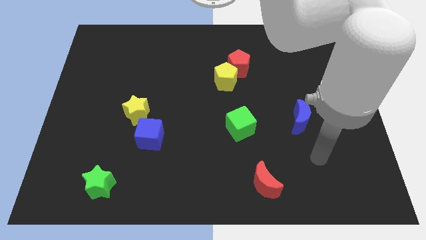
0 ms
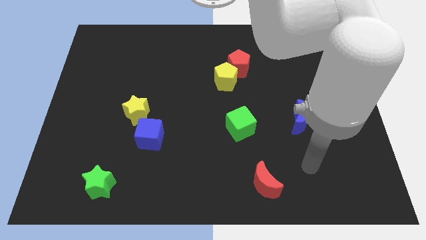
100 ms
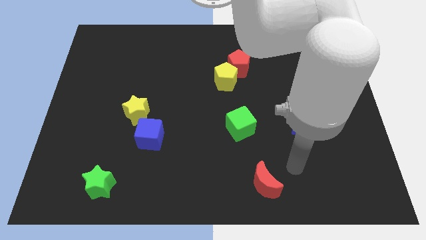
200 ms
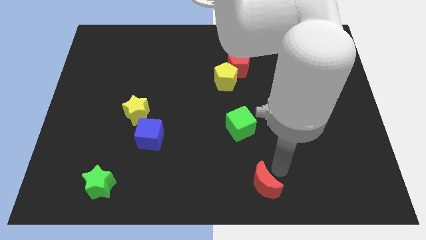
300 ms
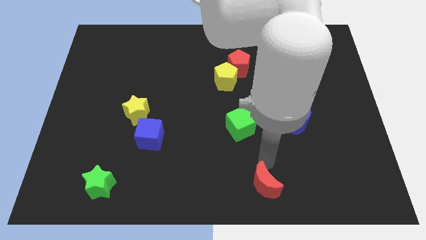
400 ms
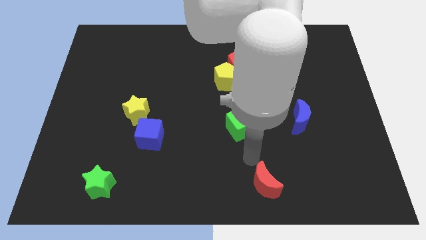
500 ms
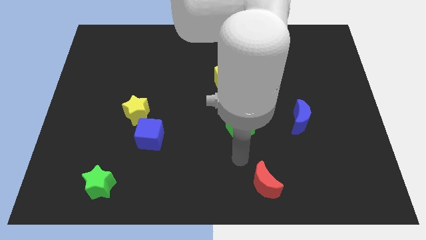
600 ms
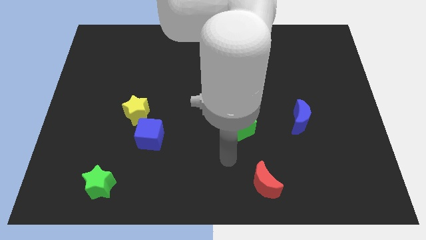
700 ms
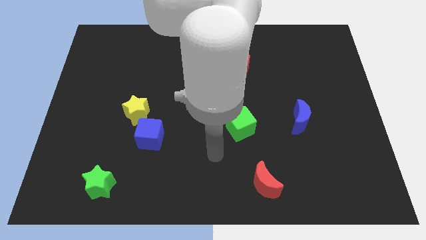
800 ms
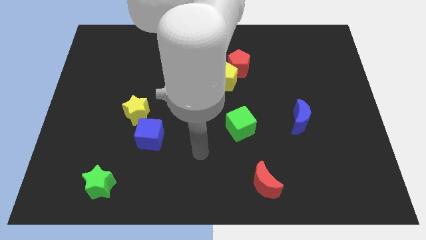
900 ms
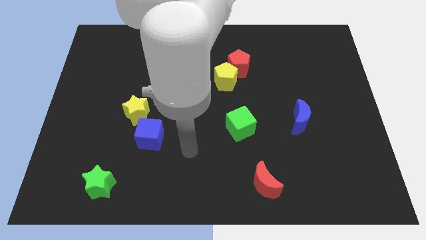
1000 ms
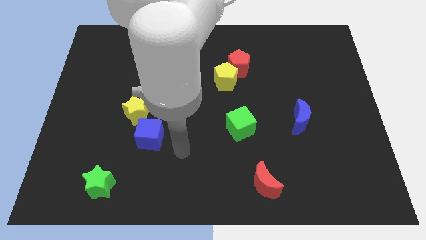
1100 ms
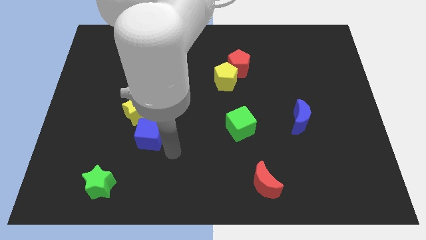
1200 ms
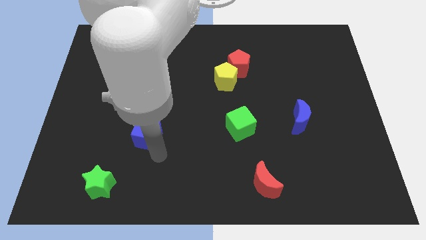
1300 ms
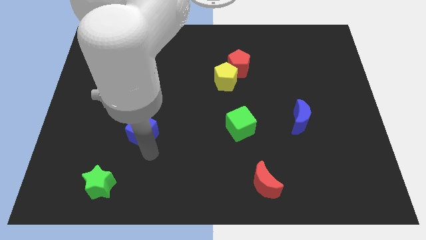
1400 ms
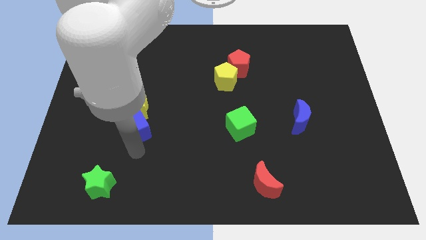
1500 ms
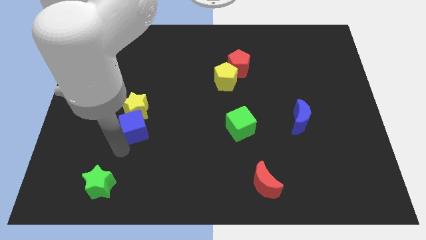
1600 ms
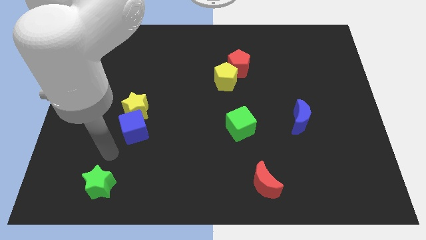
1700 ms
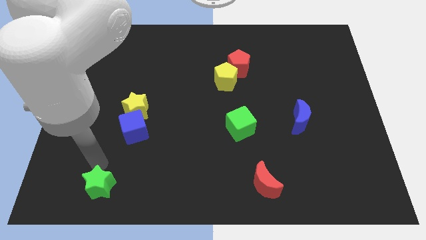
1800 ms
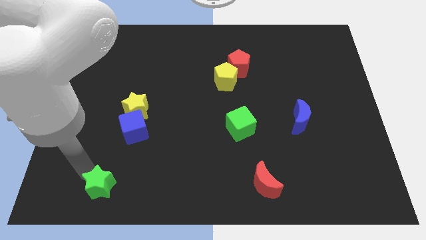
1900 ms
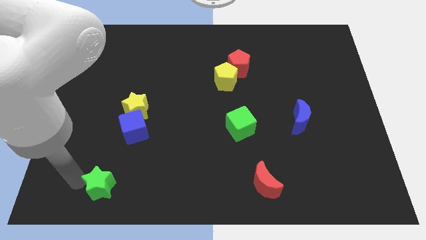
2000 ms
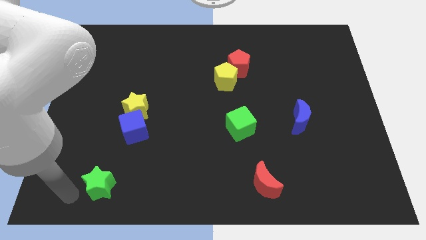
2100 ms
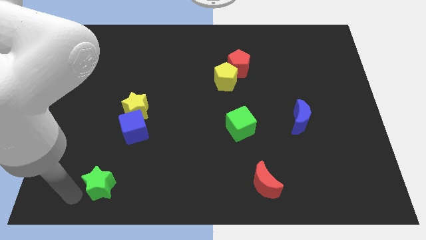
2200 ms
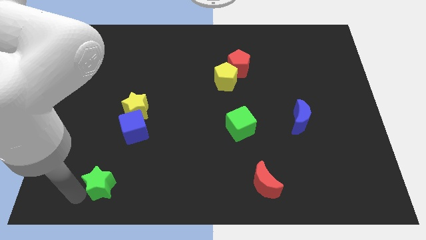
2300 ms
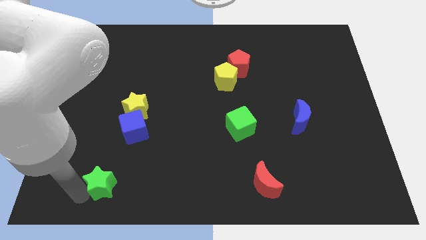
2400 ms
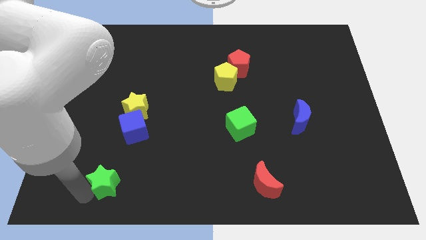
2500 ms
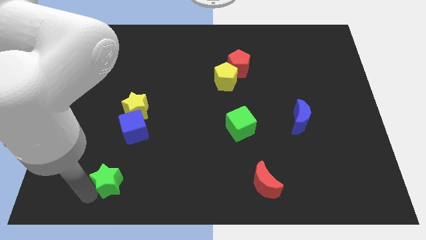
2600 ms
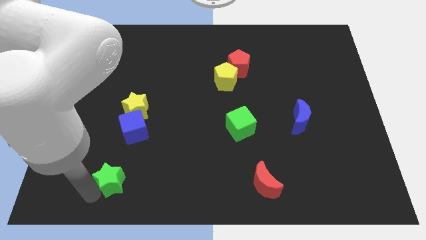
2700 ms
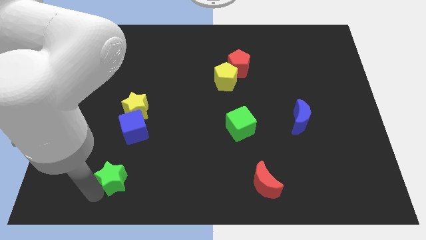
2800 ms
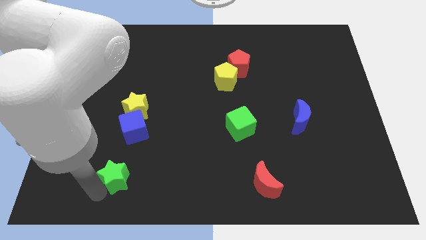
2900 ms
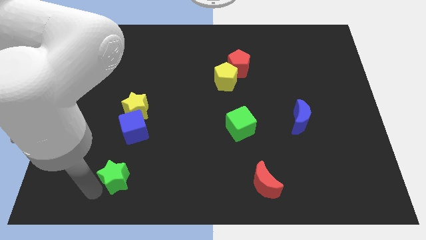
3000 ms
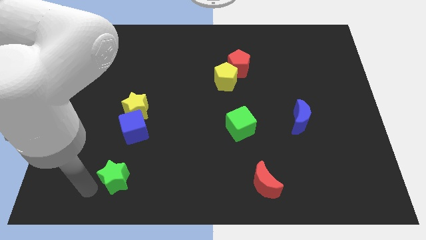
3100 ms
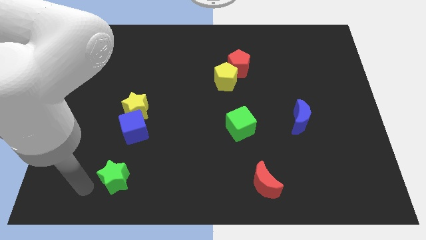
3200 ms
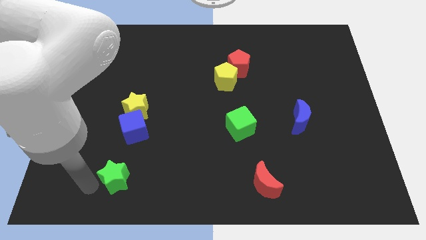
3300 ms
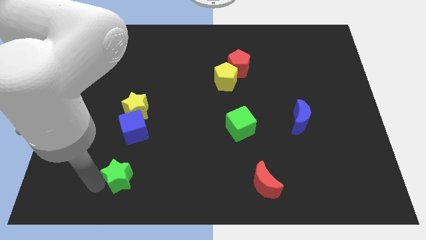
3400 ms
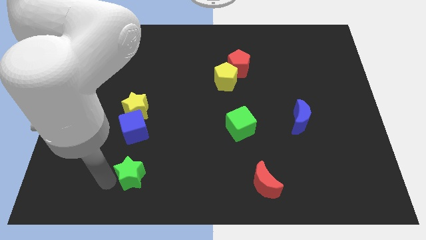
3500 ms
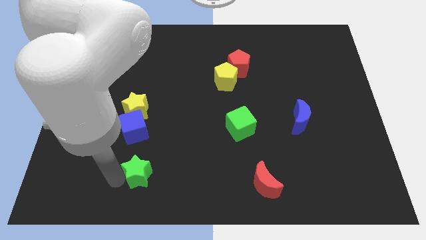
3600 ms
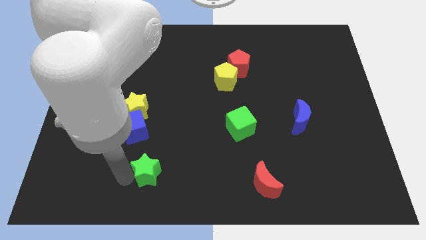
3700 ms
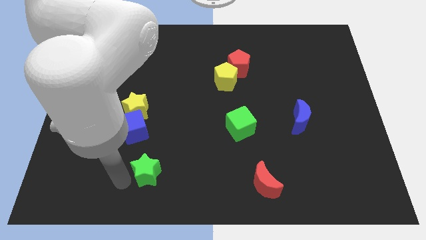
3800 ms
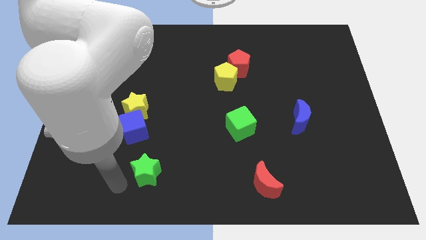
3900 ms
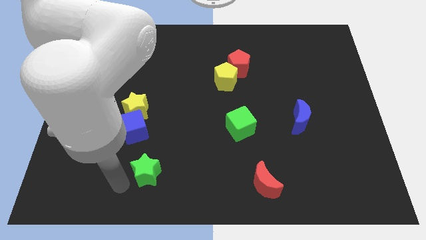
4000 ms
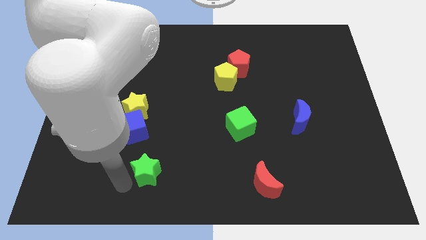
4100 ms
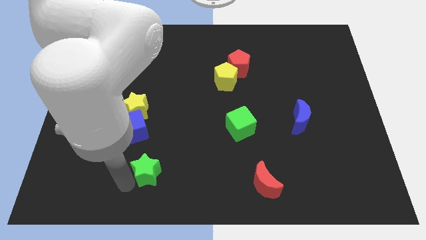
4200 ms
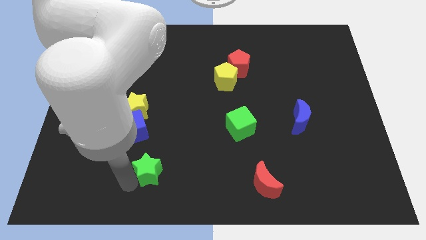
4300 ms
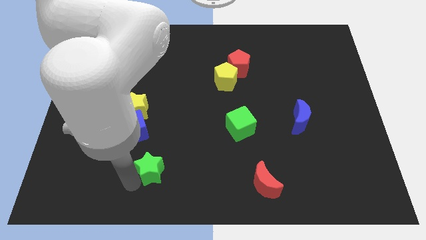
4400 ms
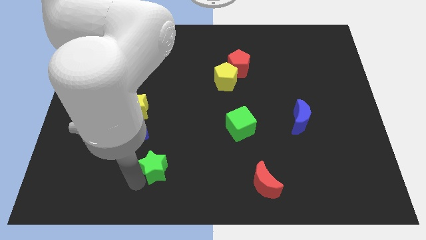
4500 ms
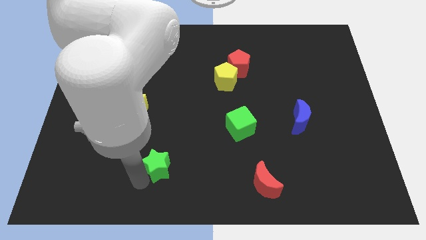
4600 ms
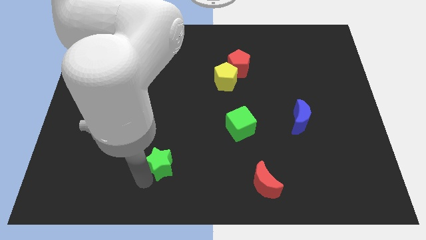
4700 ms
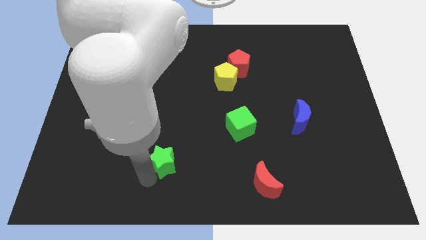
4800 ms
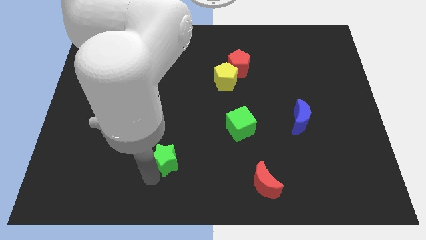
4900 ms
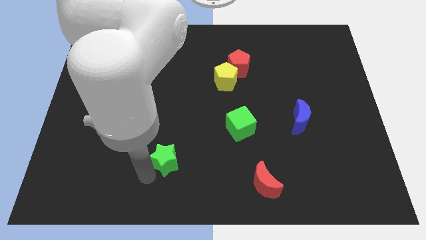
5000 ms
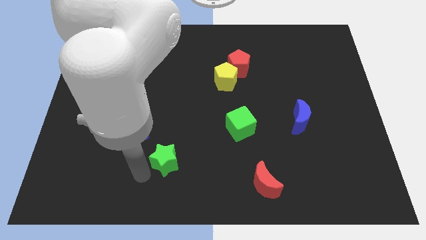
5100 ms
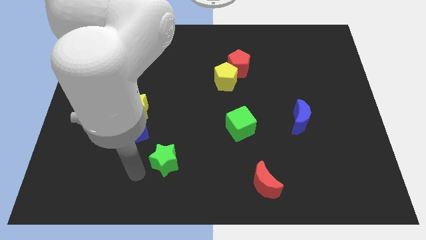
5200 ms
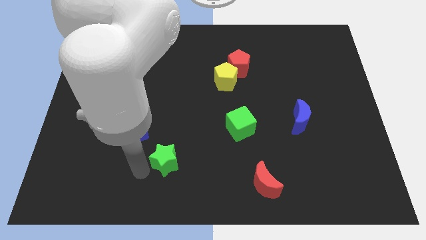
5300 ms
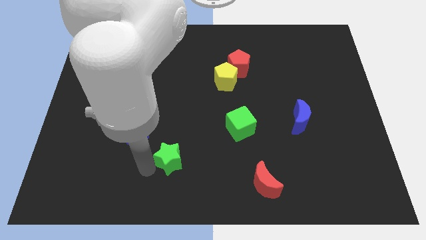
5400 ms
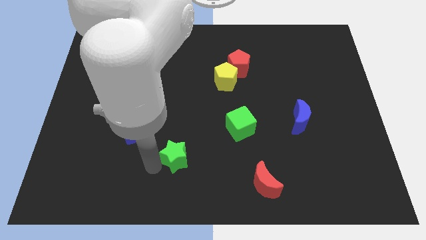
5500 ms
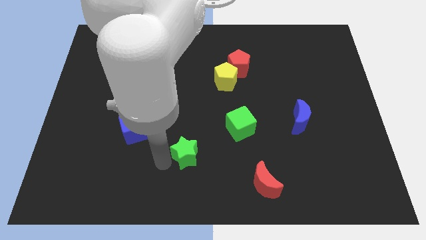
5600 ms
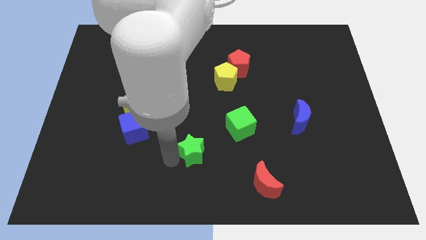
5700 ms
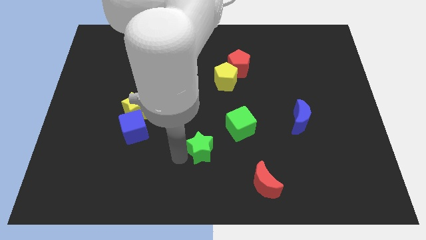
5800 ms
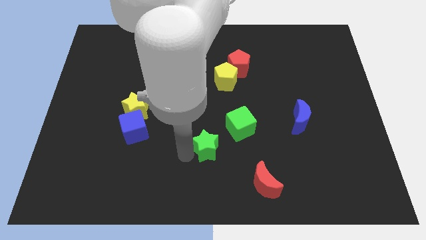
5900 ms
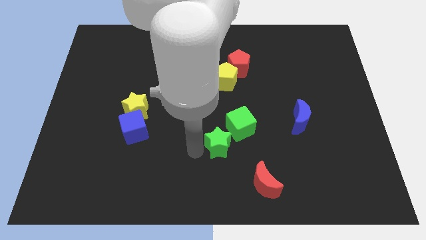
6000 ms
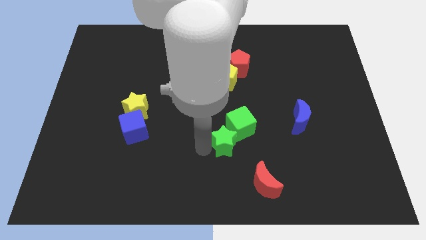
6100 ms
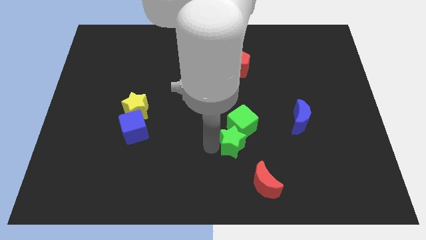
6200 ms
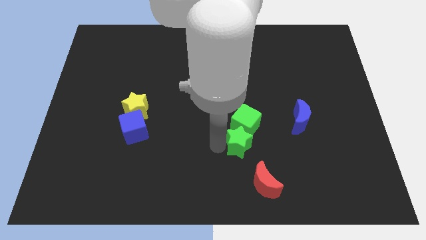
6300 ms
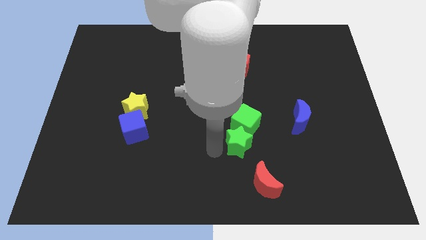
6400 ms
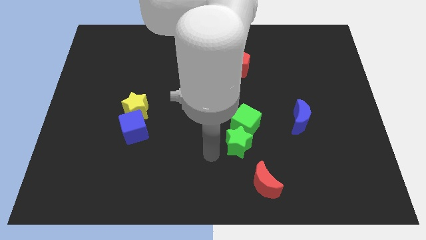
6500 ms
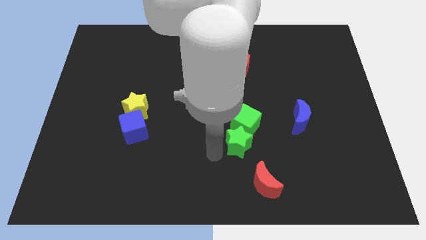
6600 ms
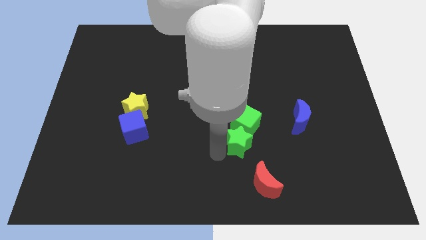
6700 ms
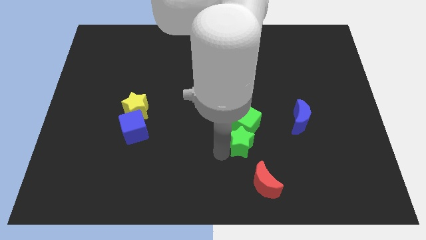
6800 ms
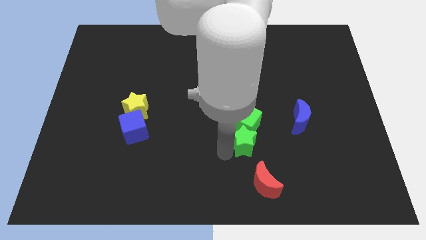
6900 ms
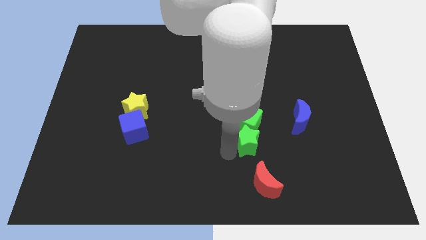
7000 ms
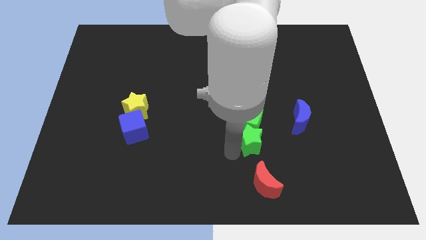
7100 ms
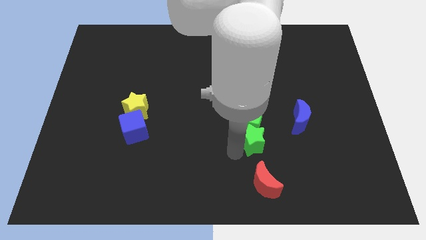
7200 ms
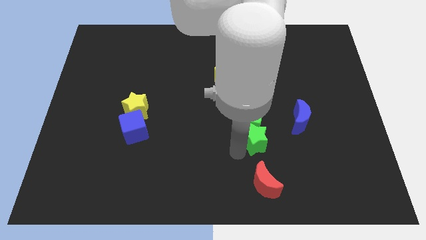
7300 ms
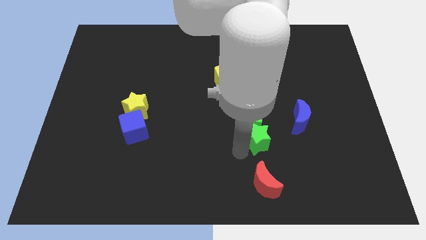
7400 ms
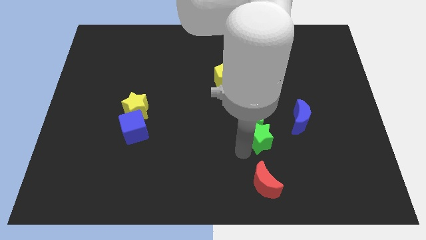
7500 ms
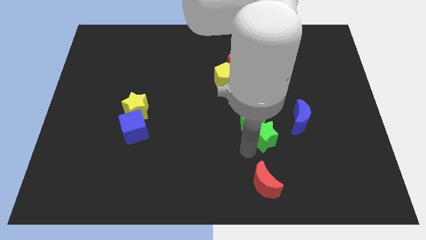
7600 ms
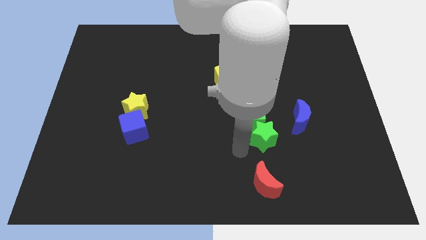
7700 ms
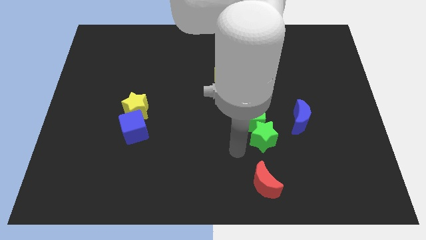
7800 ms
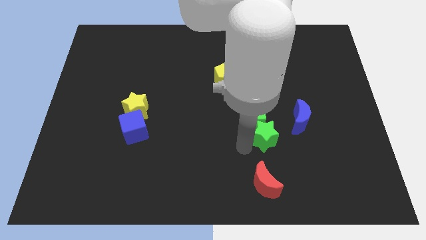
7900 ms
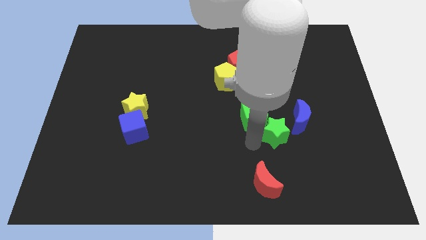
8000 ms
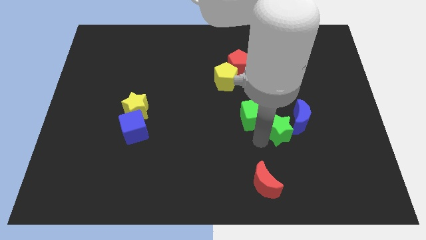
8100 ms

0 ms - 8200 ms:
slide the green star next to the blue moon
